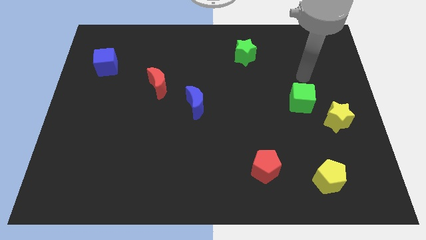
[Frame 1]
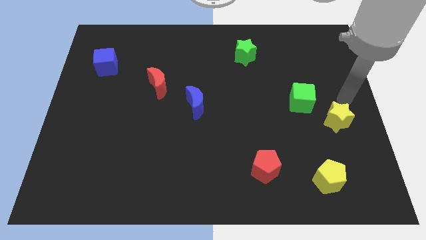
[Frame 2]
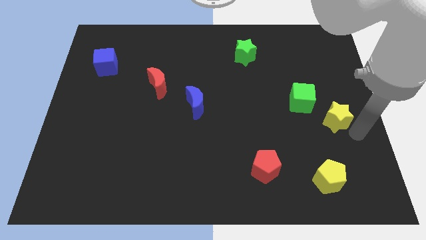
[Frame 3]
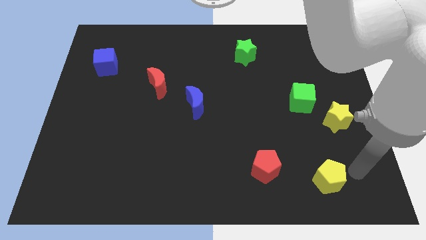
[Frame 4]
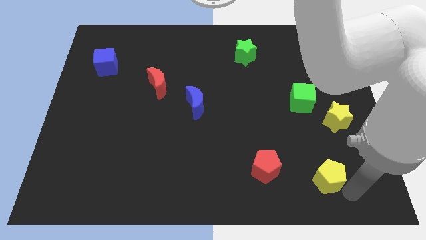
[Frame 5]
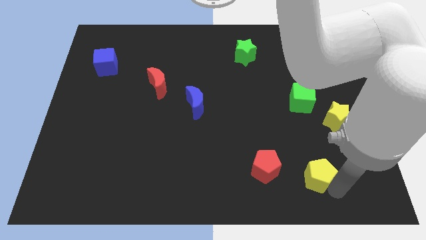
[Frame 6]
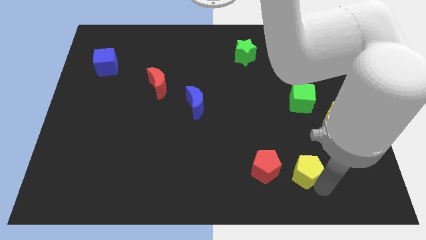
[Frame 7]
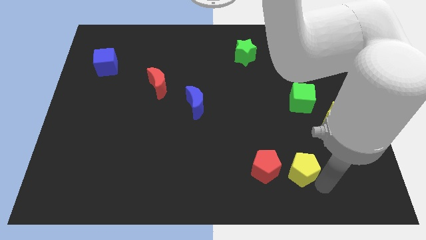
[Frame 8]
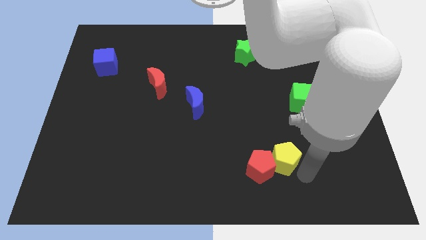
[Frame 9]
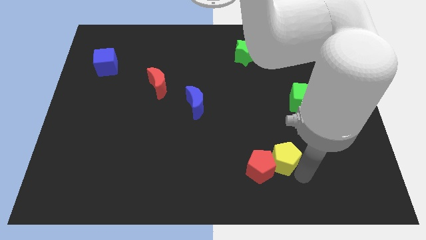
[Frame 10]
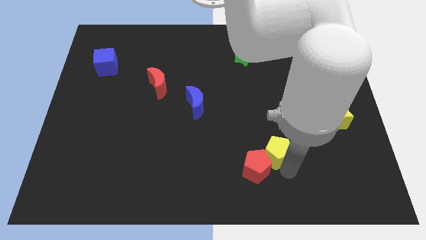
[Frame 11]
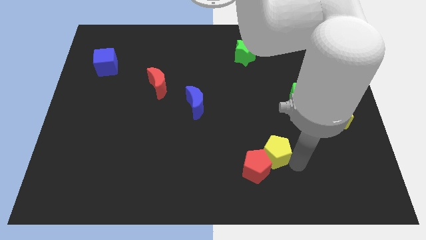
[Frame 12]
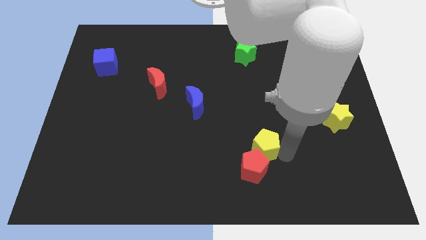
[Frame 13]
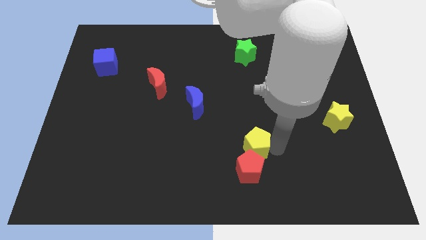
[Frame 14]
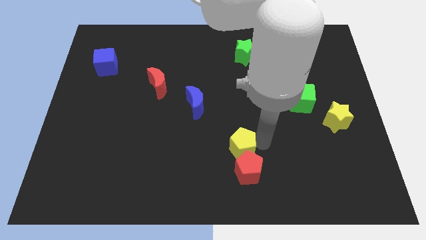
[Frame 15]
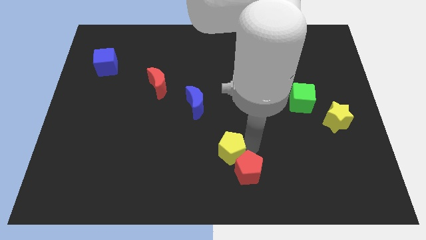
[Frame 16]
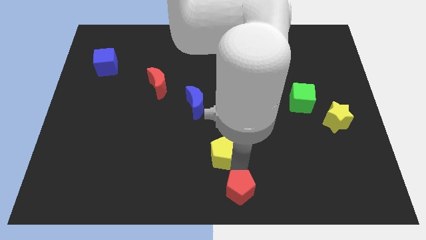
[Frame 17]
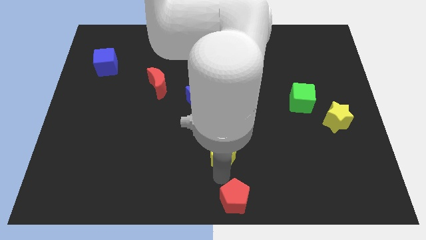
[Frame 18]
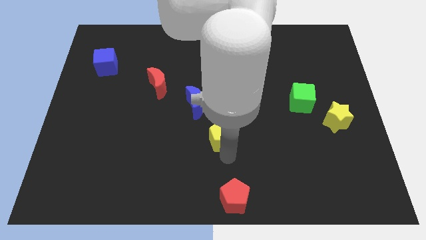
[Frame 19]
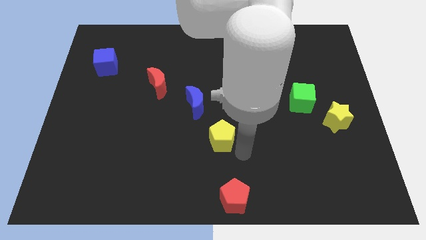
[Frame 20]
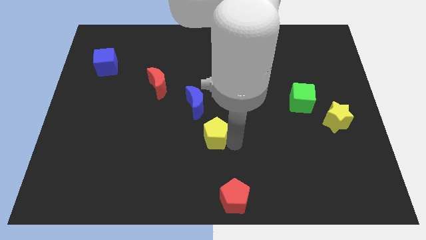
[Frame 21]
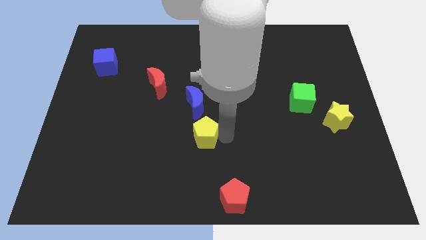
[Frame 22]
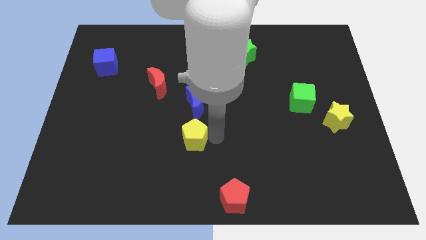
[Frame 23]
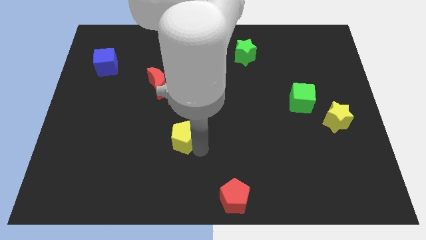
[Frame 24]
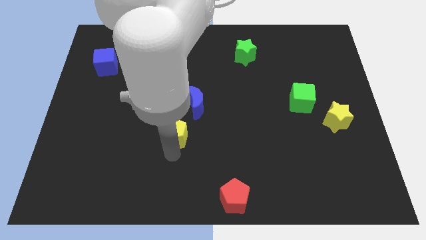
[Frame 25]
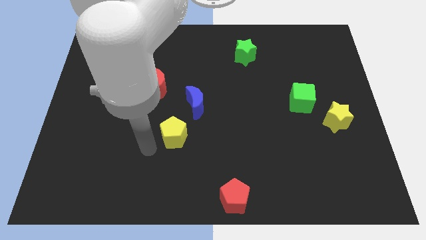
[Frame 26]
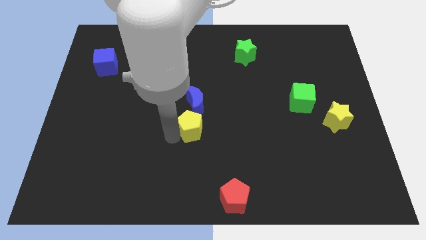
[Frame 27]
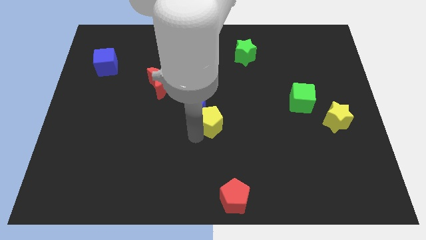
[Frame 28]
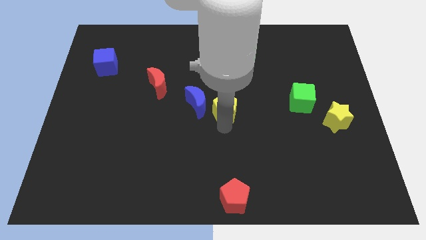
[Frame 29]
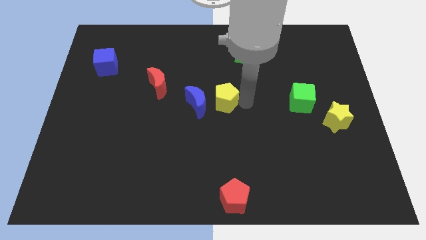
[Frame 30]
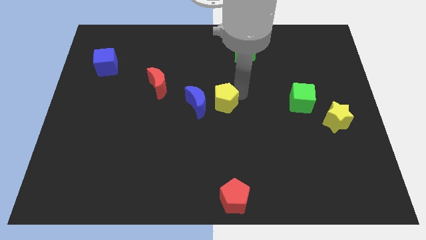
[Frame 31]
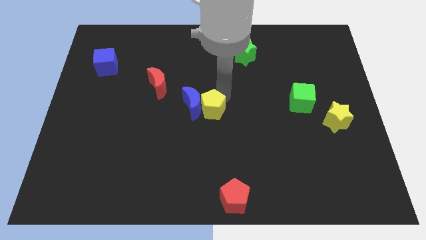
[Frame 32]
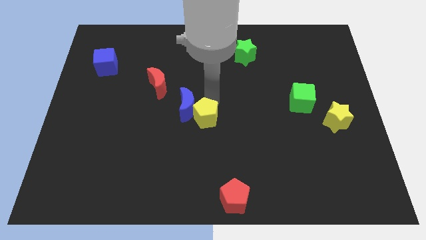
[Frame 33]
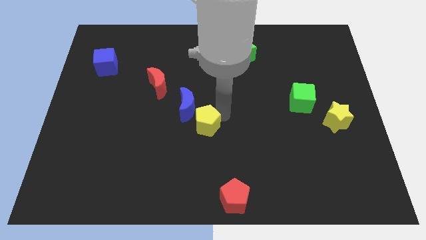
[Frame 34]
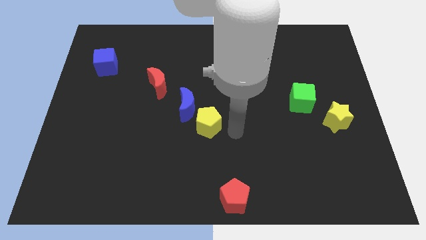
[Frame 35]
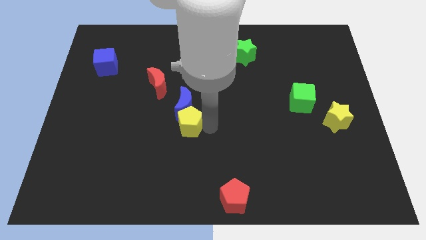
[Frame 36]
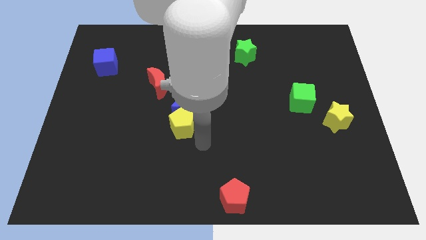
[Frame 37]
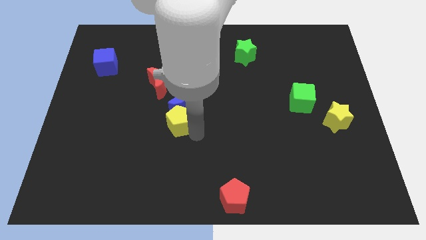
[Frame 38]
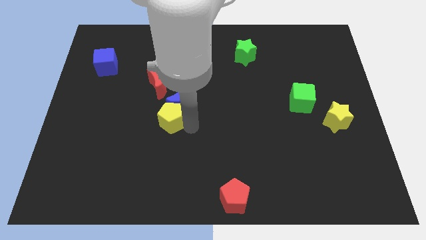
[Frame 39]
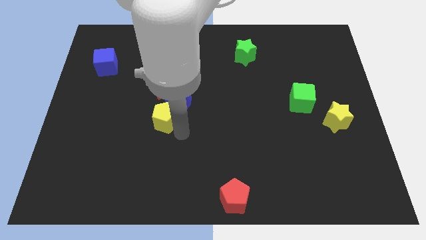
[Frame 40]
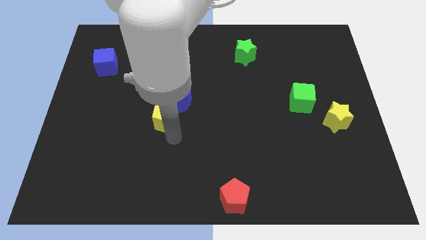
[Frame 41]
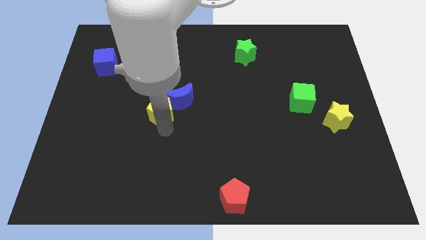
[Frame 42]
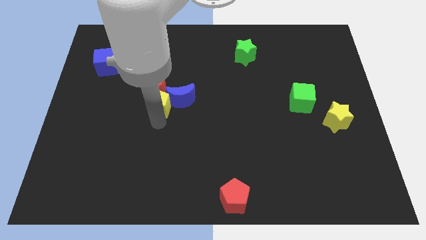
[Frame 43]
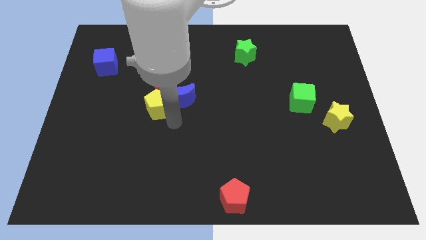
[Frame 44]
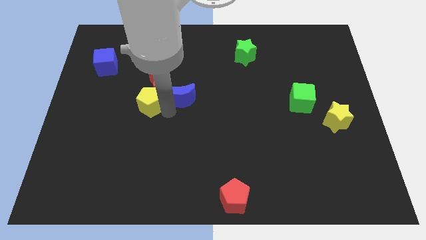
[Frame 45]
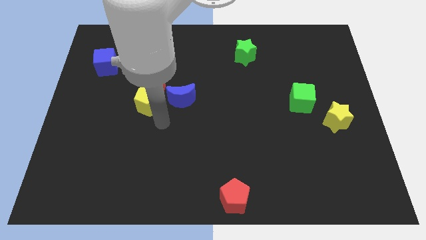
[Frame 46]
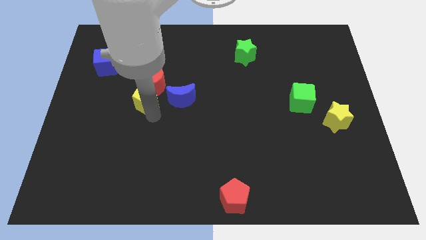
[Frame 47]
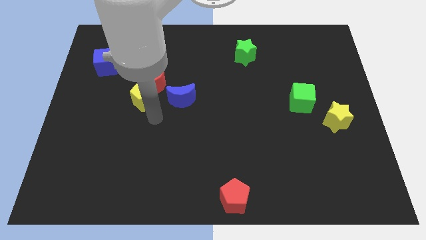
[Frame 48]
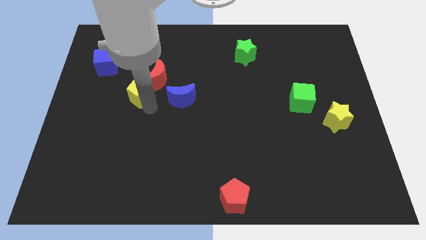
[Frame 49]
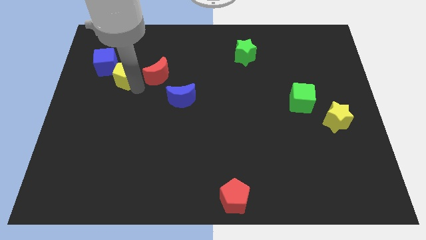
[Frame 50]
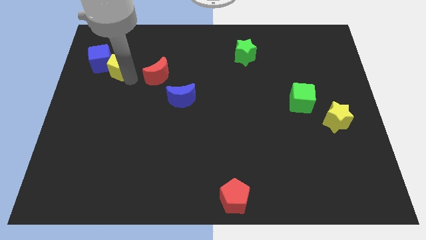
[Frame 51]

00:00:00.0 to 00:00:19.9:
slide the yellow pentagon to the blue cube

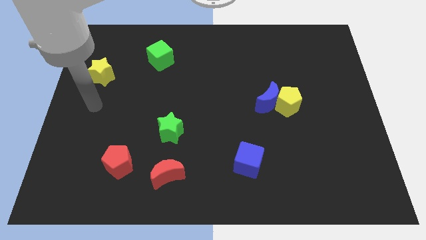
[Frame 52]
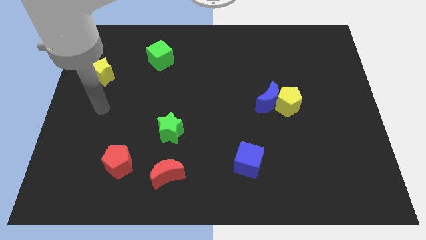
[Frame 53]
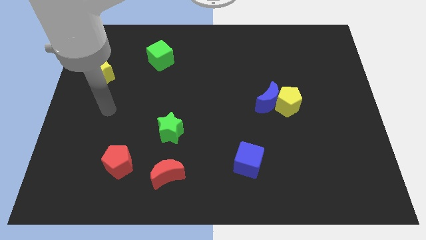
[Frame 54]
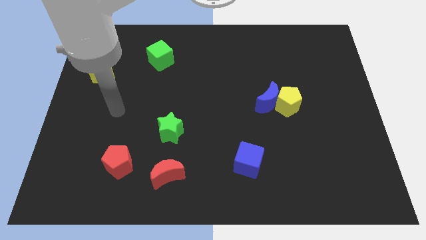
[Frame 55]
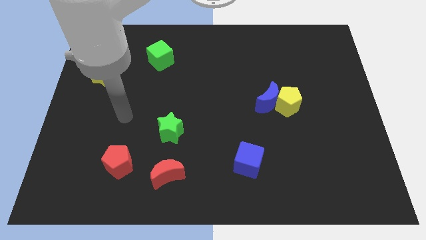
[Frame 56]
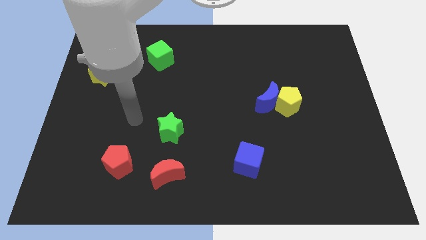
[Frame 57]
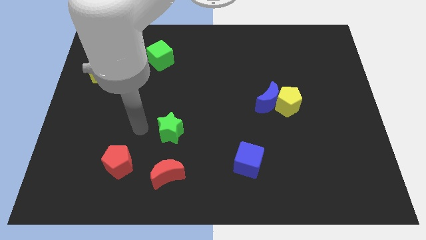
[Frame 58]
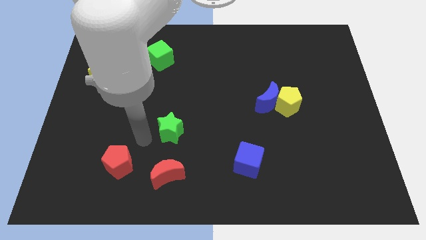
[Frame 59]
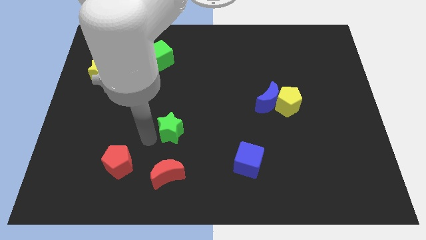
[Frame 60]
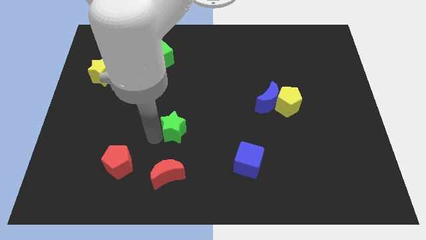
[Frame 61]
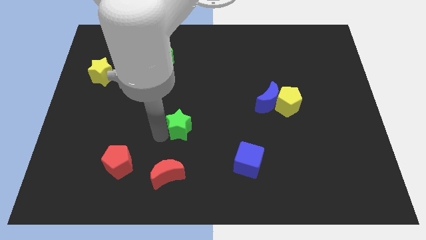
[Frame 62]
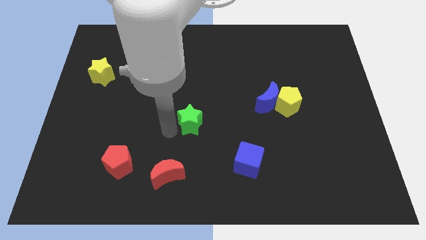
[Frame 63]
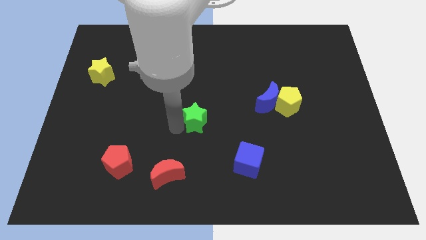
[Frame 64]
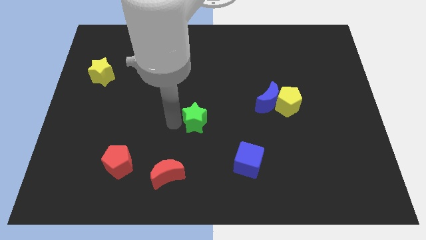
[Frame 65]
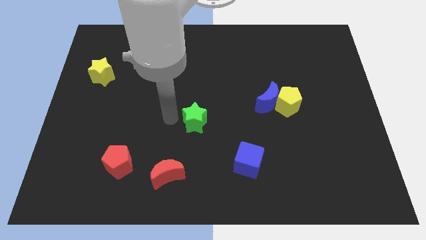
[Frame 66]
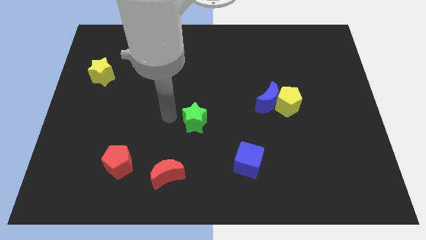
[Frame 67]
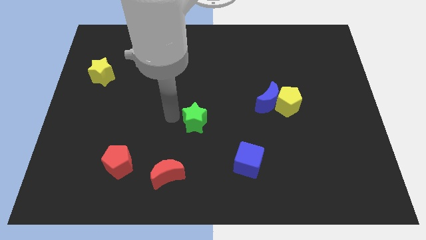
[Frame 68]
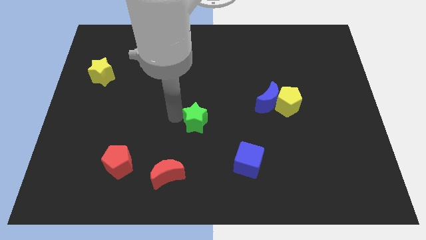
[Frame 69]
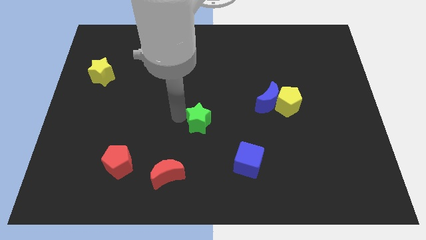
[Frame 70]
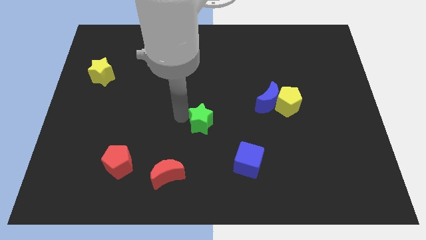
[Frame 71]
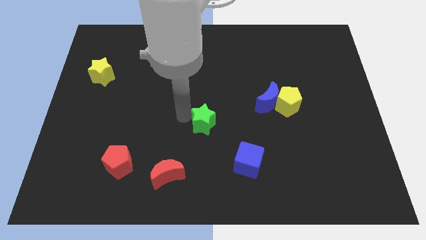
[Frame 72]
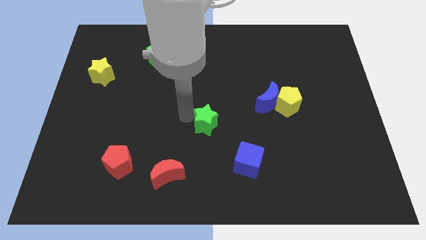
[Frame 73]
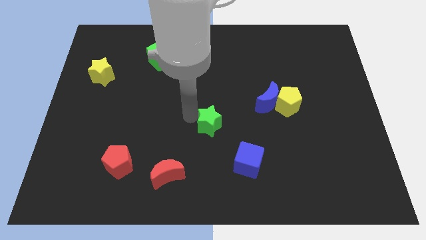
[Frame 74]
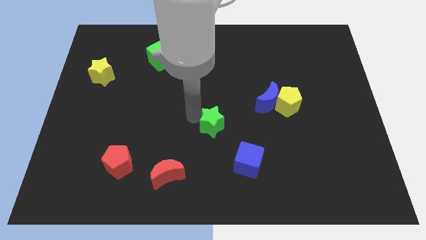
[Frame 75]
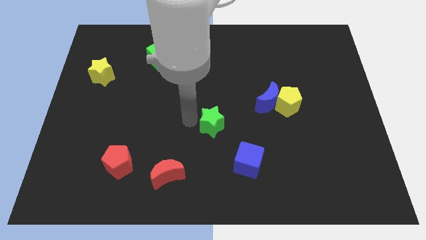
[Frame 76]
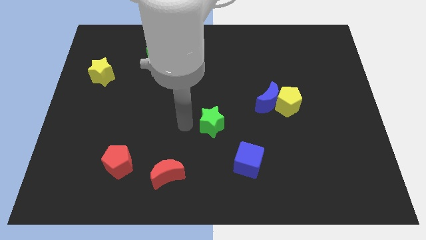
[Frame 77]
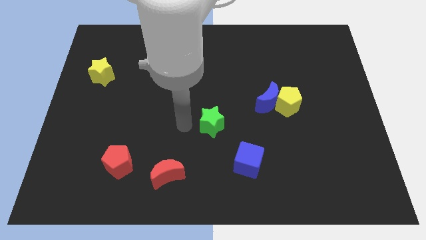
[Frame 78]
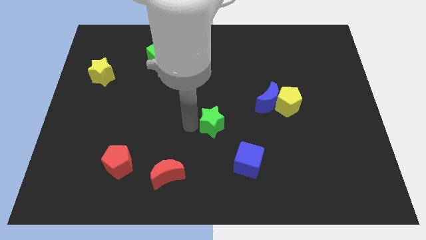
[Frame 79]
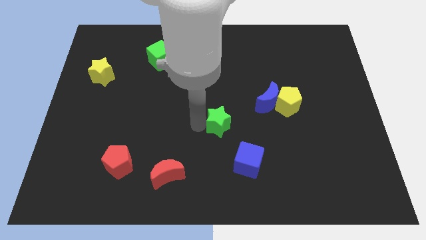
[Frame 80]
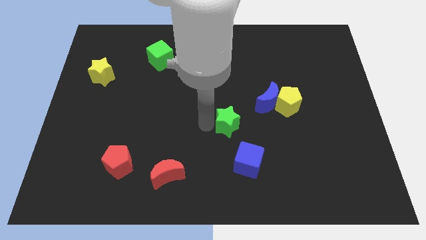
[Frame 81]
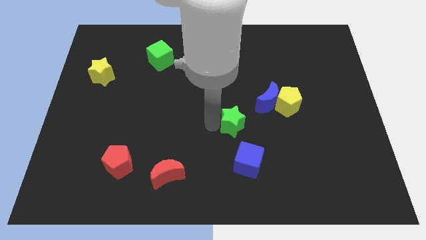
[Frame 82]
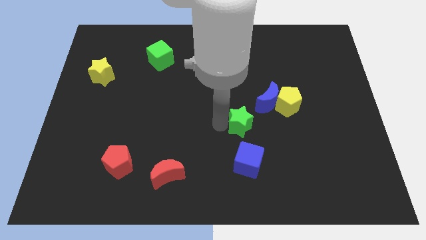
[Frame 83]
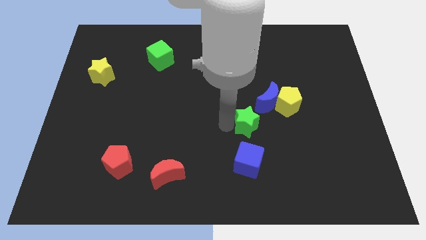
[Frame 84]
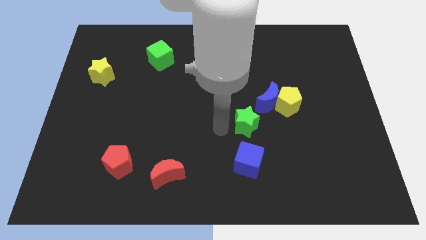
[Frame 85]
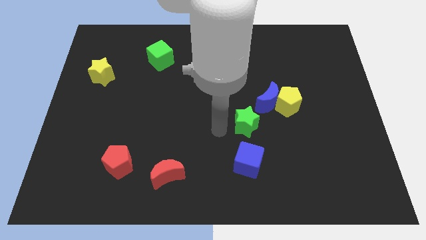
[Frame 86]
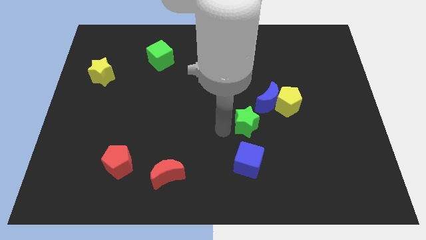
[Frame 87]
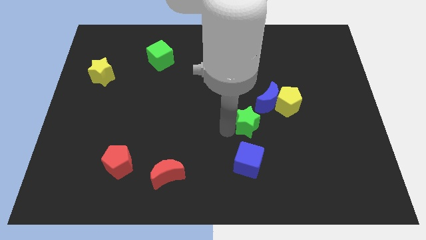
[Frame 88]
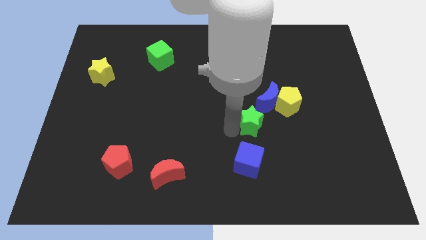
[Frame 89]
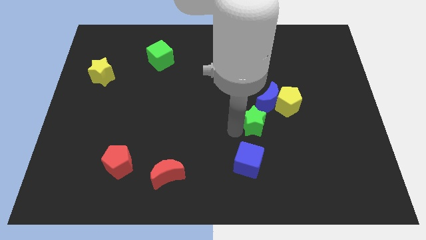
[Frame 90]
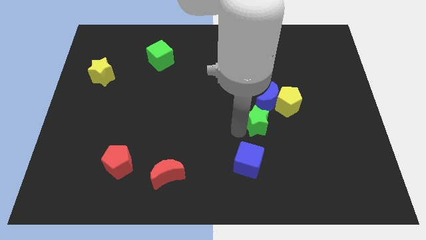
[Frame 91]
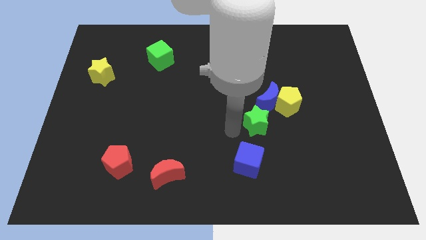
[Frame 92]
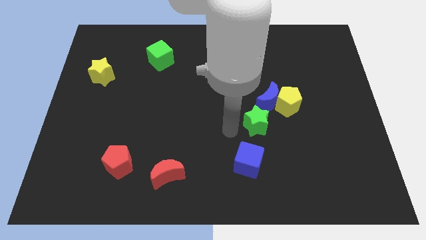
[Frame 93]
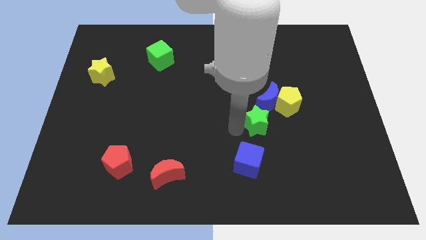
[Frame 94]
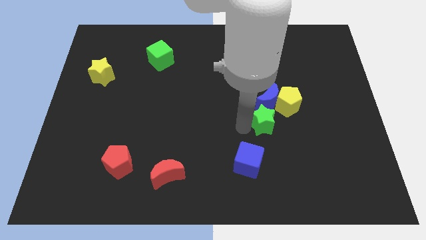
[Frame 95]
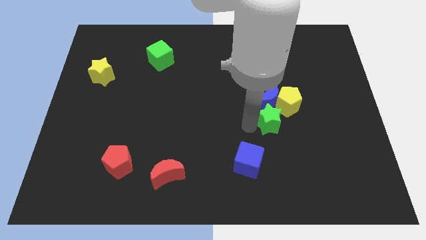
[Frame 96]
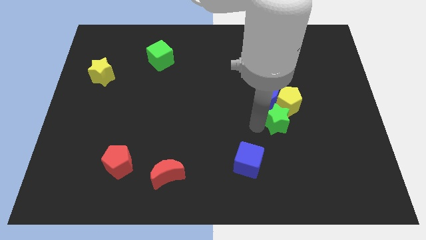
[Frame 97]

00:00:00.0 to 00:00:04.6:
slide the green star close to the yellow pentagon
